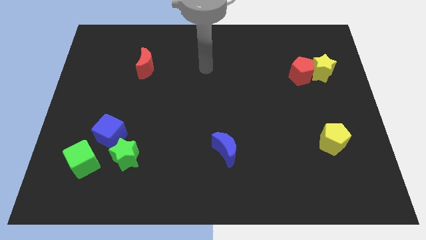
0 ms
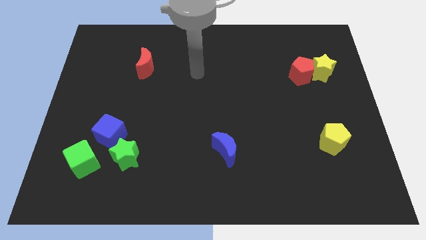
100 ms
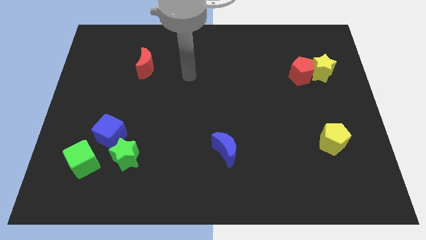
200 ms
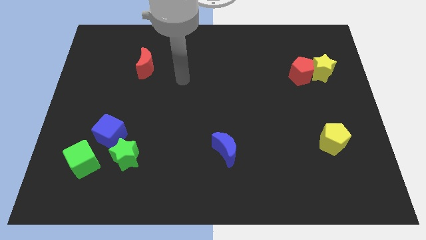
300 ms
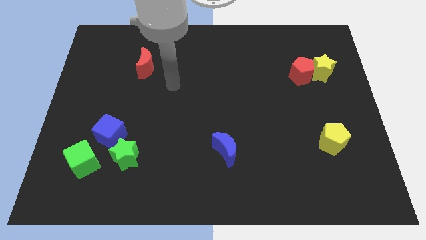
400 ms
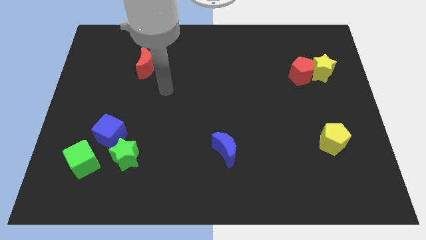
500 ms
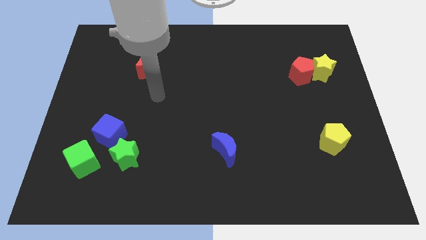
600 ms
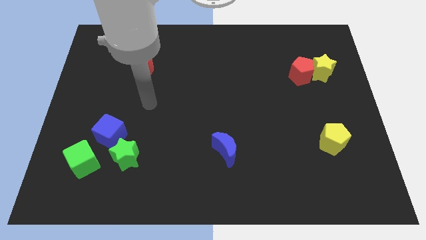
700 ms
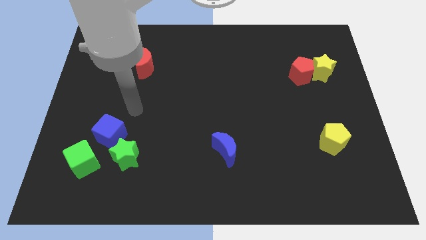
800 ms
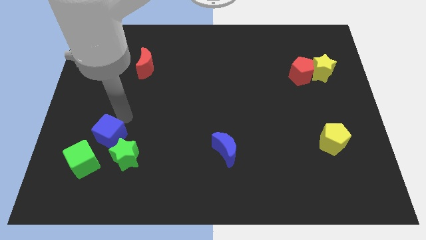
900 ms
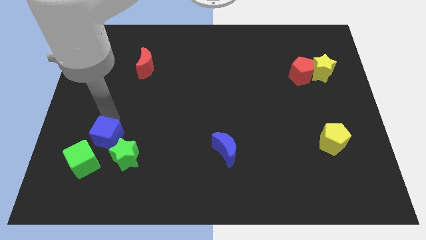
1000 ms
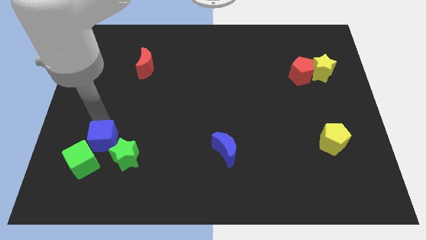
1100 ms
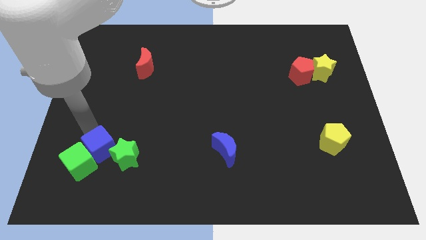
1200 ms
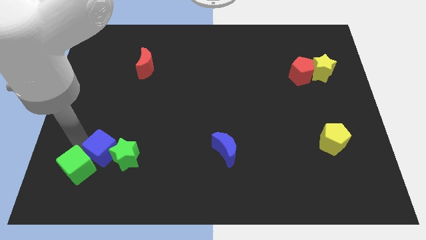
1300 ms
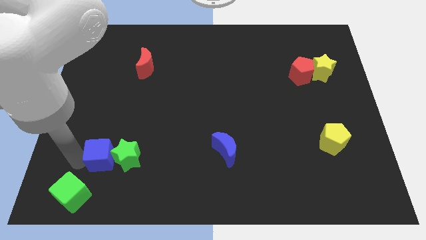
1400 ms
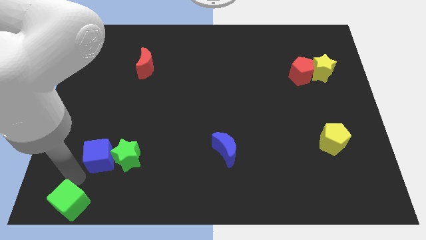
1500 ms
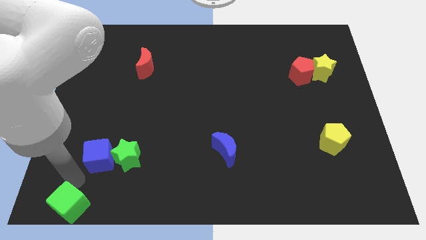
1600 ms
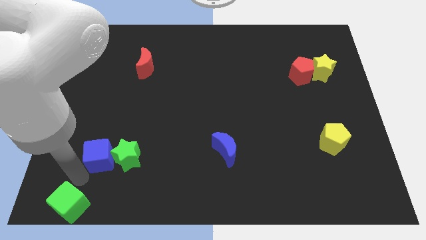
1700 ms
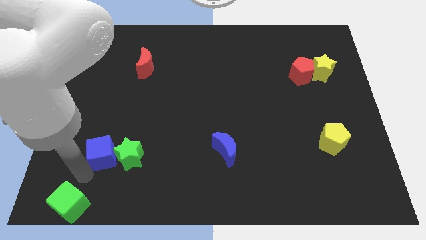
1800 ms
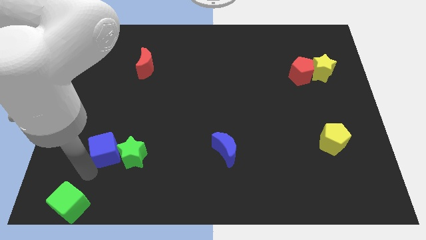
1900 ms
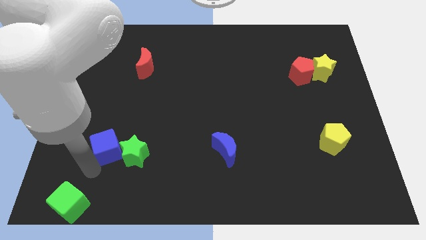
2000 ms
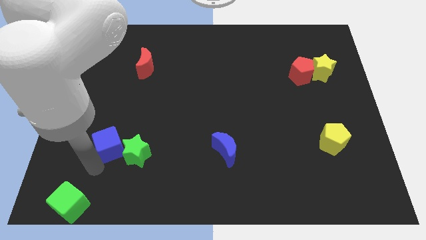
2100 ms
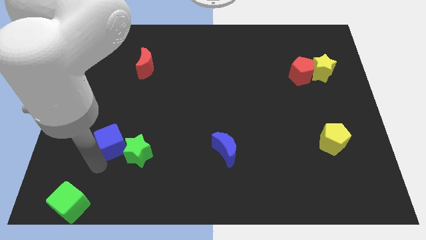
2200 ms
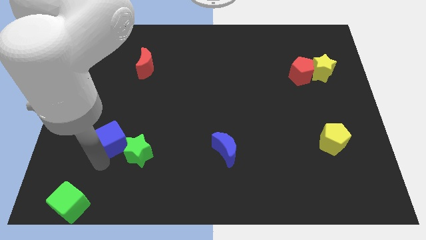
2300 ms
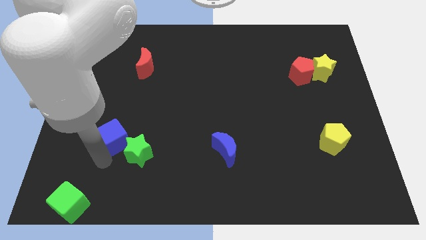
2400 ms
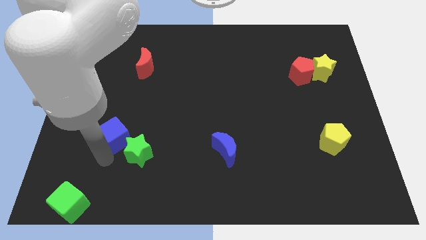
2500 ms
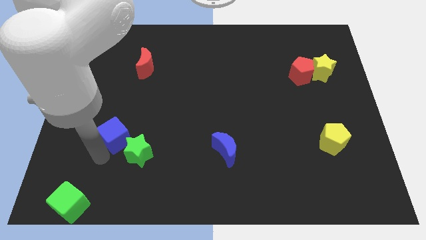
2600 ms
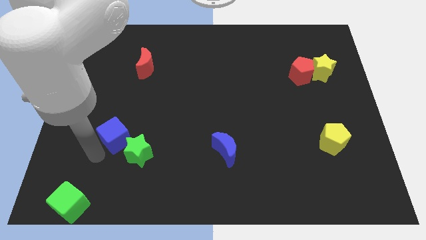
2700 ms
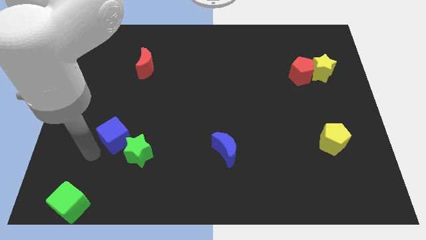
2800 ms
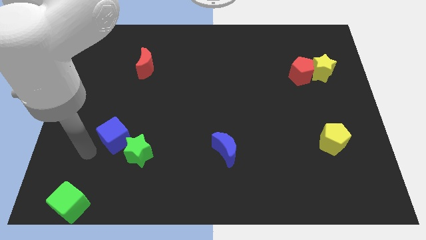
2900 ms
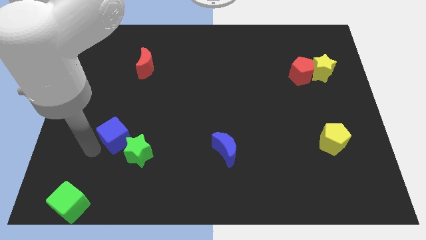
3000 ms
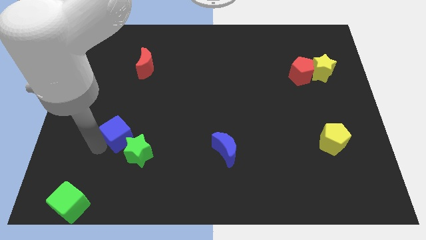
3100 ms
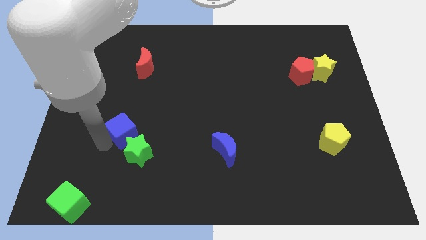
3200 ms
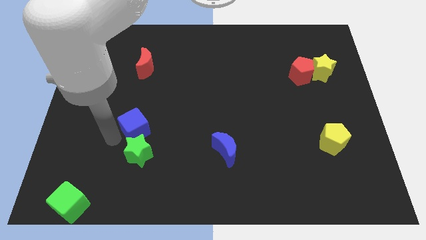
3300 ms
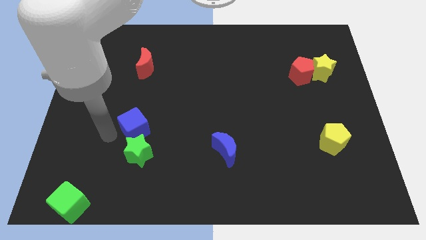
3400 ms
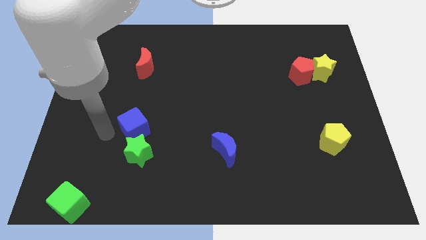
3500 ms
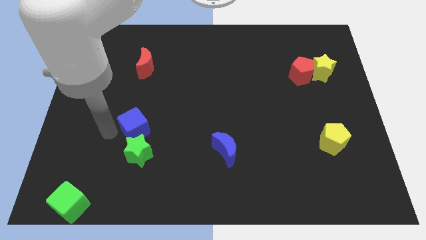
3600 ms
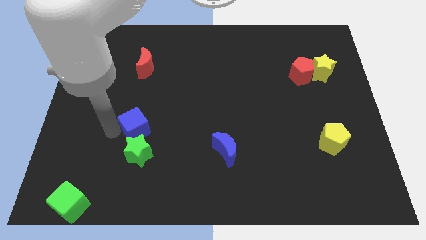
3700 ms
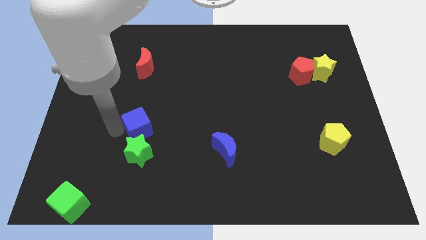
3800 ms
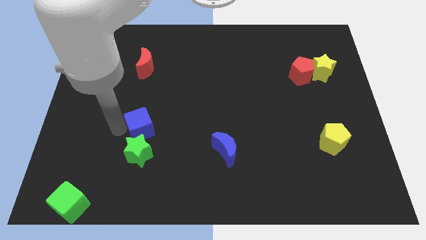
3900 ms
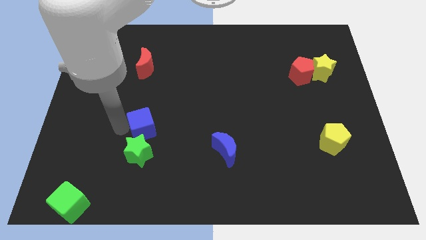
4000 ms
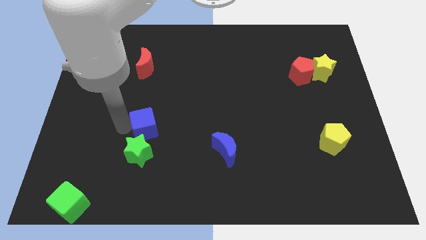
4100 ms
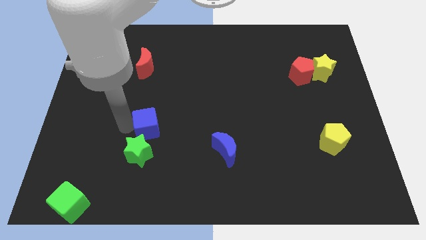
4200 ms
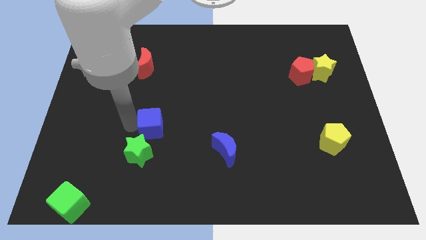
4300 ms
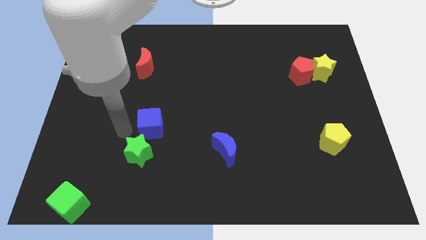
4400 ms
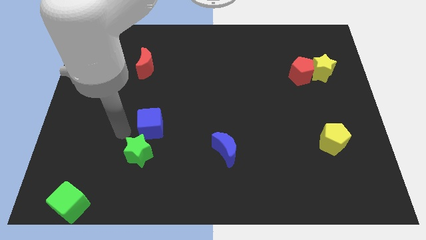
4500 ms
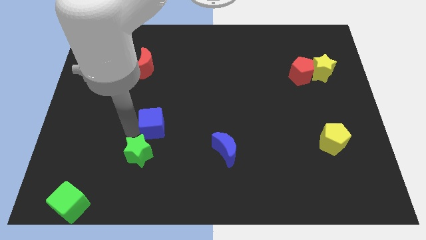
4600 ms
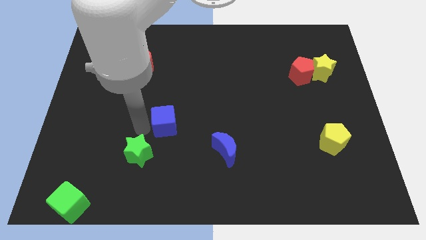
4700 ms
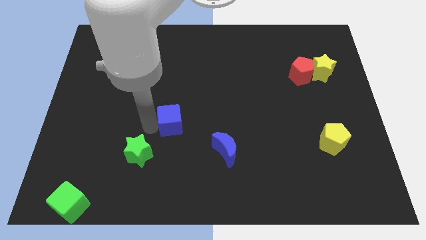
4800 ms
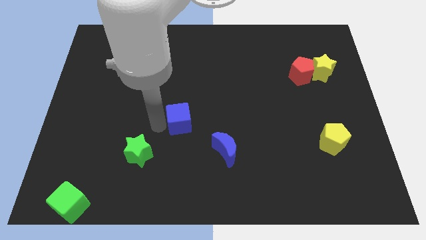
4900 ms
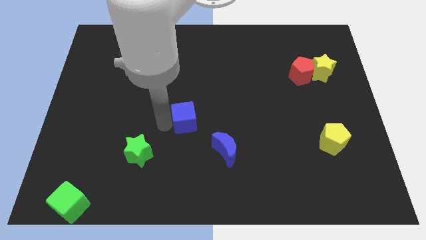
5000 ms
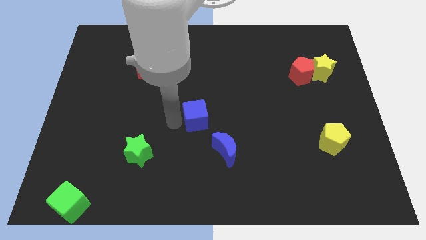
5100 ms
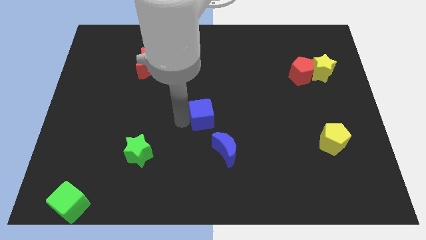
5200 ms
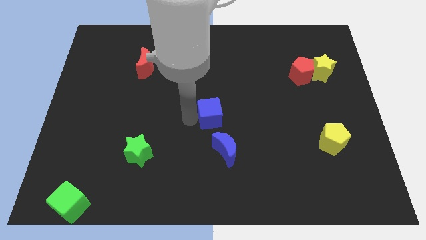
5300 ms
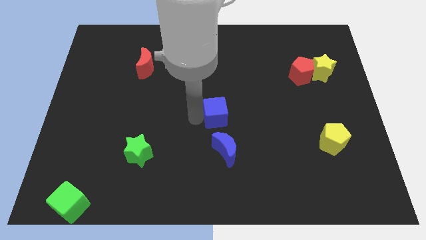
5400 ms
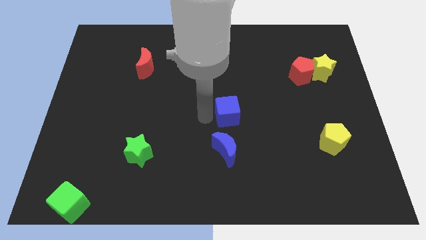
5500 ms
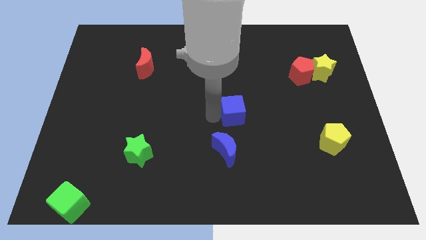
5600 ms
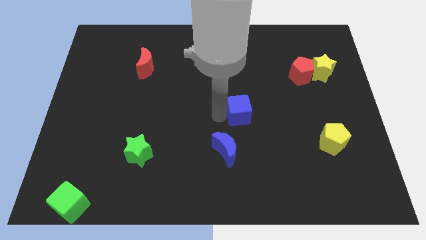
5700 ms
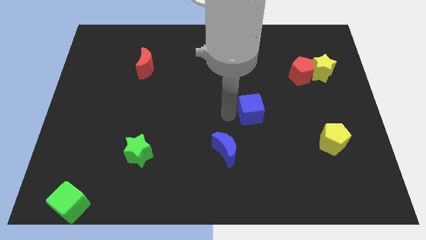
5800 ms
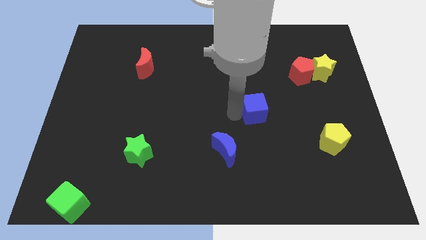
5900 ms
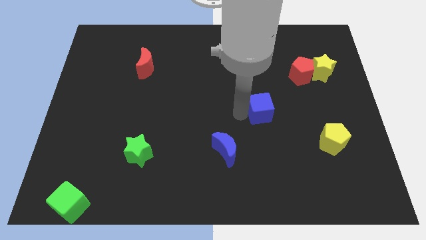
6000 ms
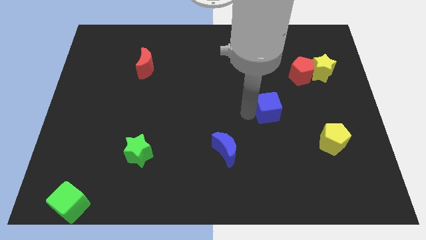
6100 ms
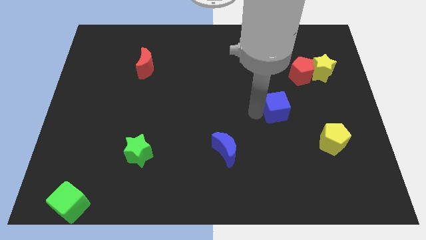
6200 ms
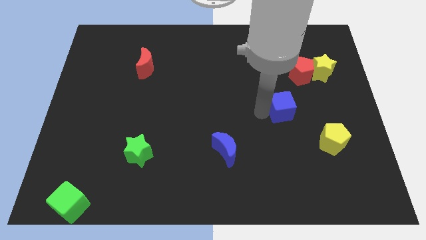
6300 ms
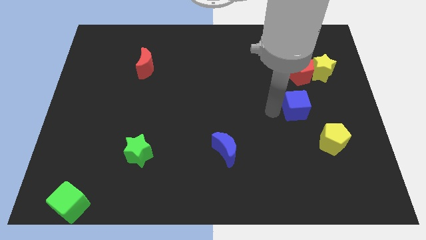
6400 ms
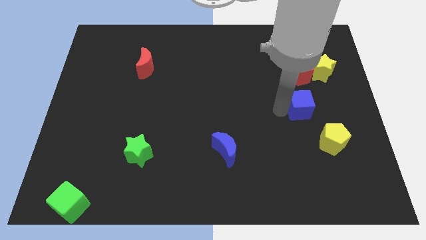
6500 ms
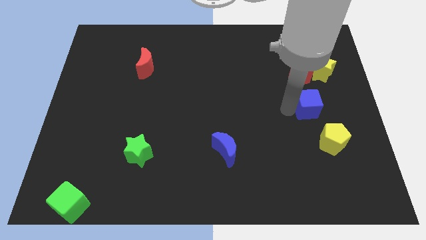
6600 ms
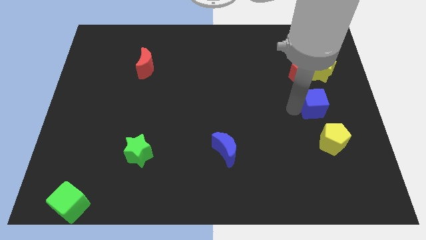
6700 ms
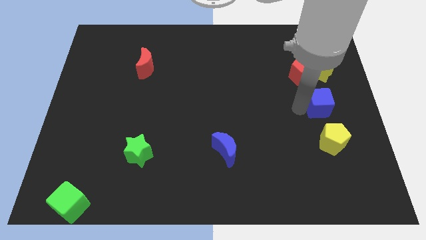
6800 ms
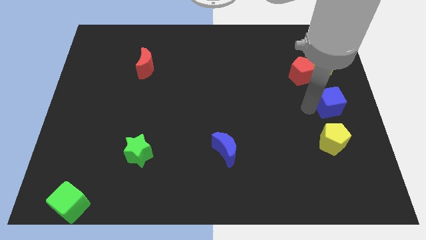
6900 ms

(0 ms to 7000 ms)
put the blue cube to the right side
